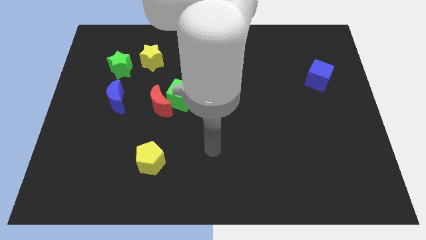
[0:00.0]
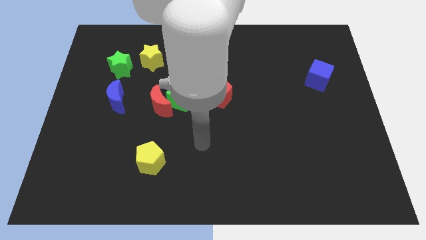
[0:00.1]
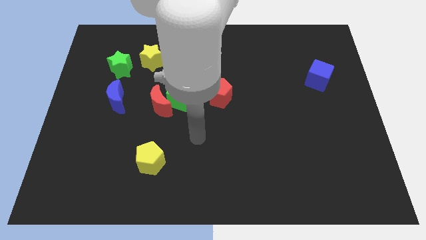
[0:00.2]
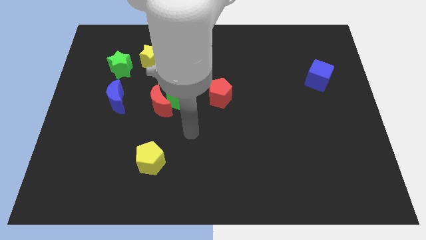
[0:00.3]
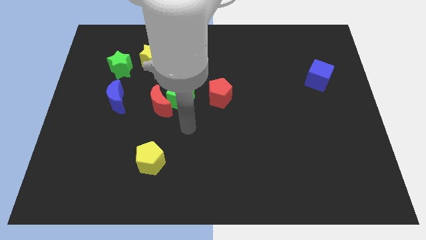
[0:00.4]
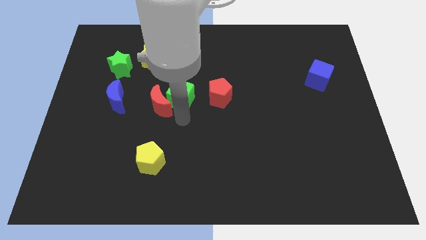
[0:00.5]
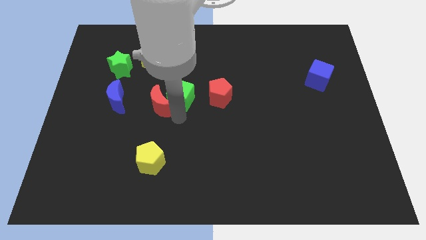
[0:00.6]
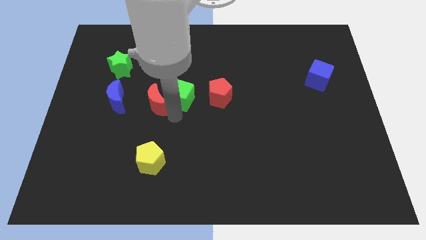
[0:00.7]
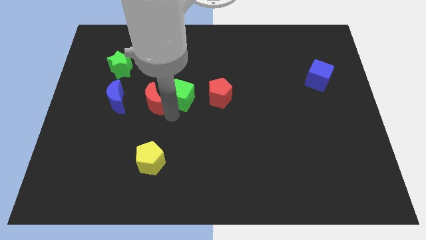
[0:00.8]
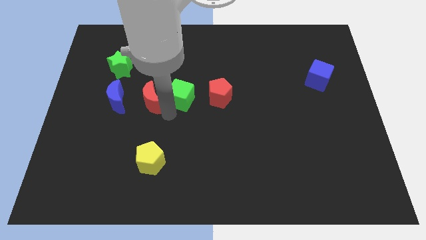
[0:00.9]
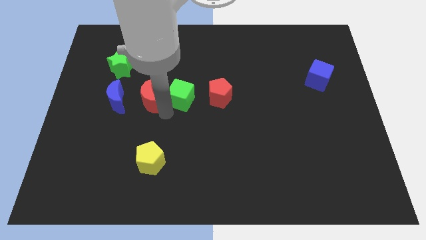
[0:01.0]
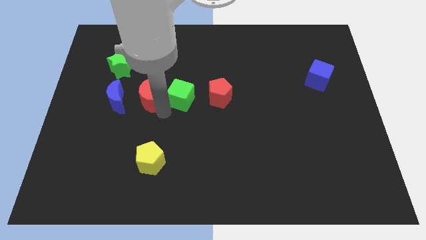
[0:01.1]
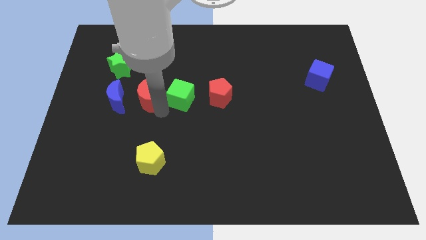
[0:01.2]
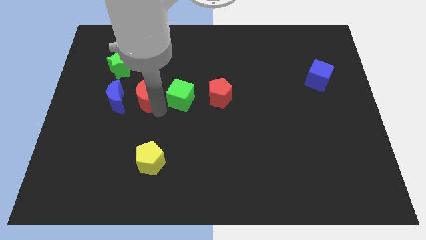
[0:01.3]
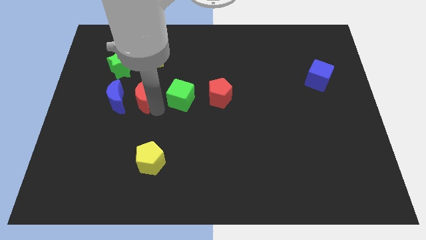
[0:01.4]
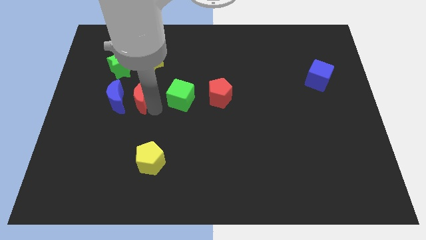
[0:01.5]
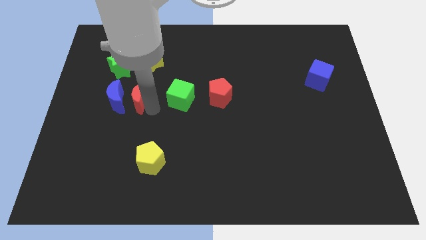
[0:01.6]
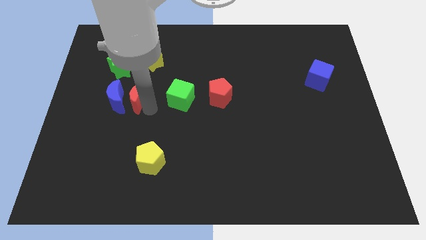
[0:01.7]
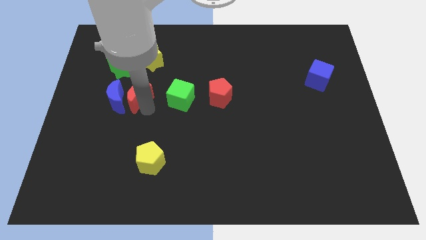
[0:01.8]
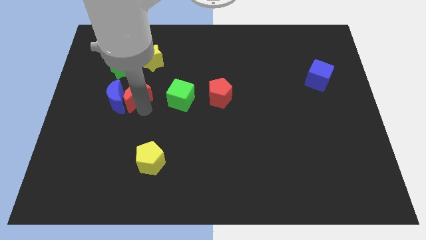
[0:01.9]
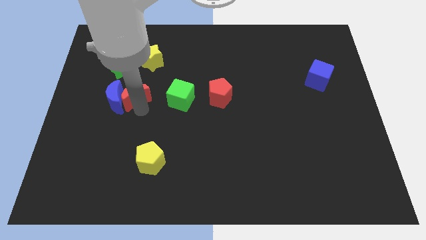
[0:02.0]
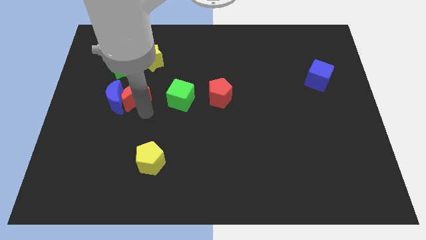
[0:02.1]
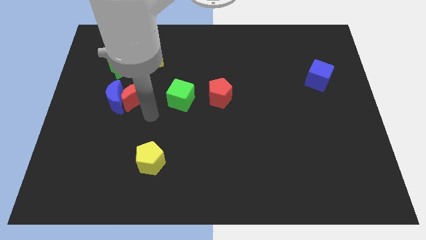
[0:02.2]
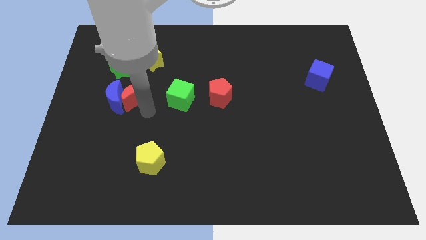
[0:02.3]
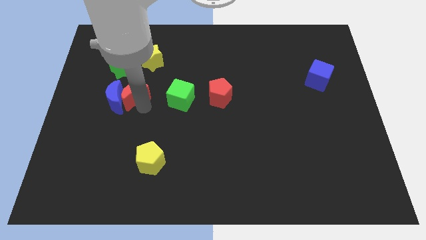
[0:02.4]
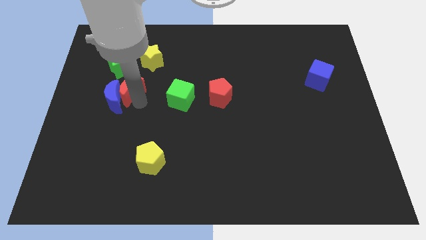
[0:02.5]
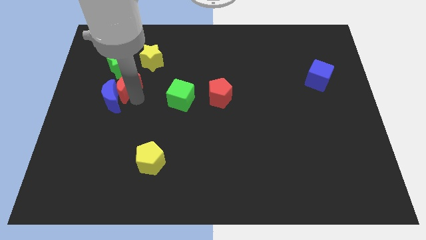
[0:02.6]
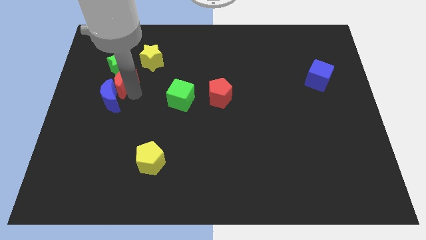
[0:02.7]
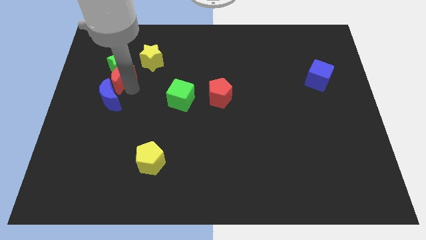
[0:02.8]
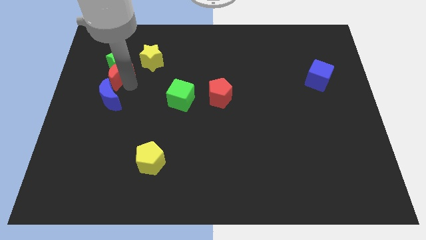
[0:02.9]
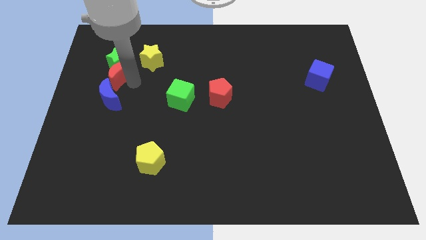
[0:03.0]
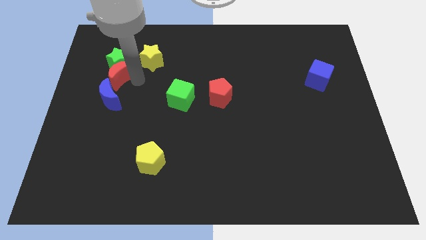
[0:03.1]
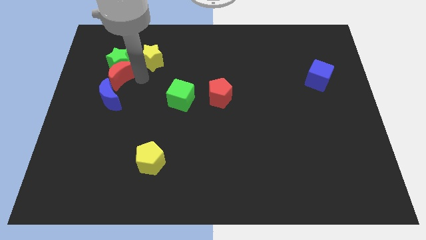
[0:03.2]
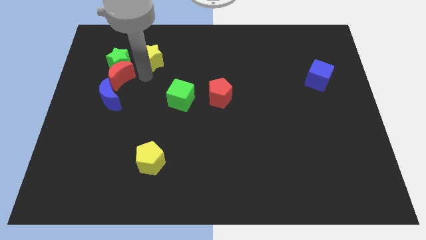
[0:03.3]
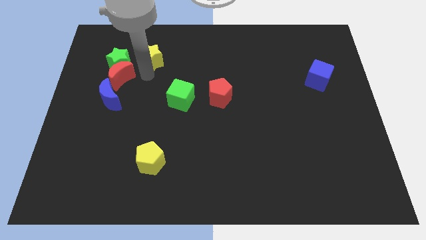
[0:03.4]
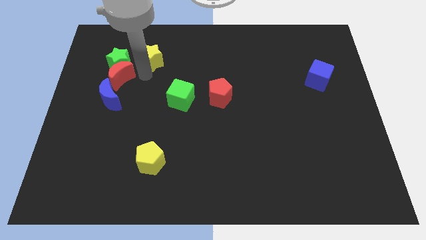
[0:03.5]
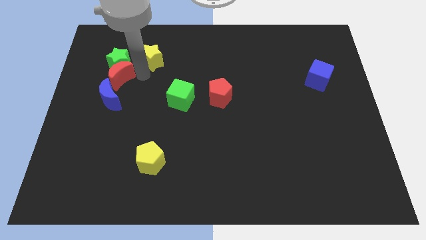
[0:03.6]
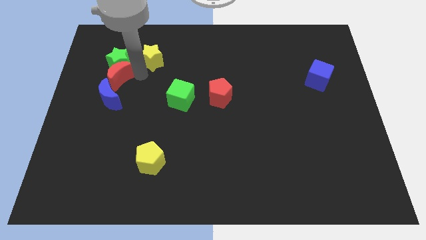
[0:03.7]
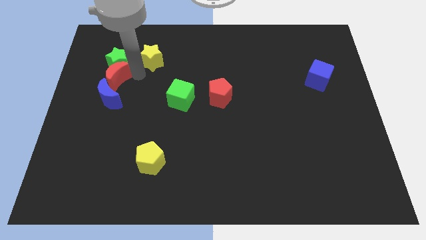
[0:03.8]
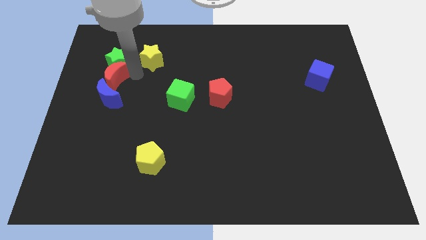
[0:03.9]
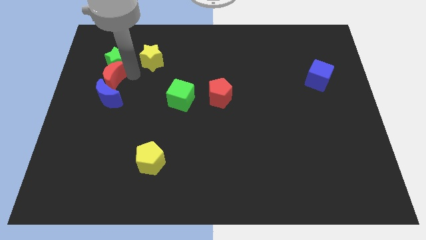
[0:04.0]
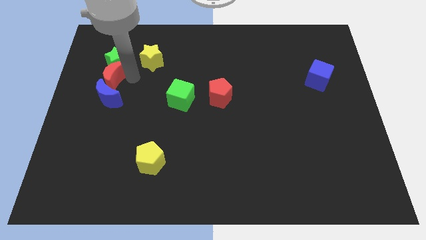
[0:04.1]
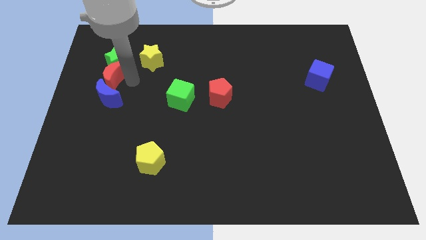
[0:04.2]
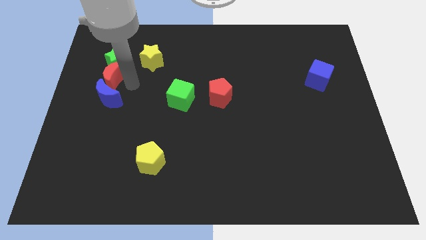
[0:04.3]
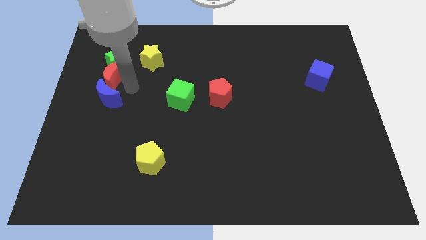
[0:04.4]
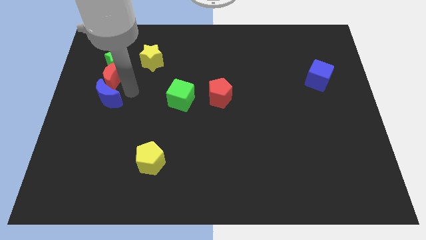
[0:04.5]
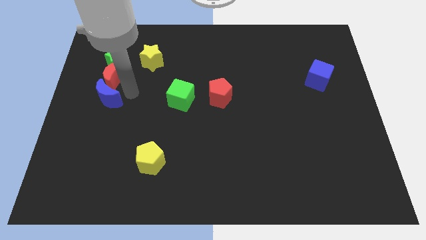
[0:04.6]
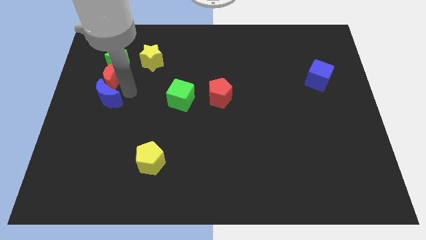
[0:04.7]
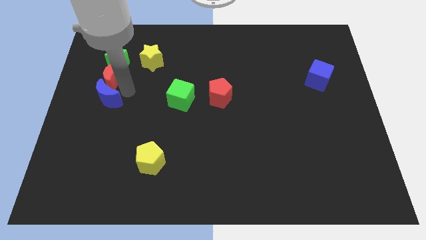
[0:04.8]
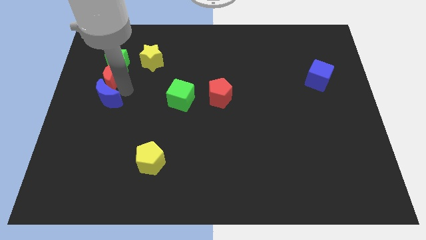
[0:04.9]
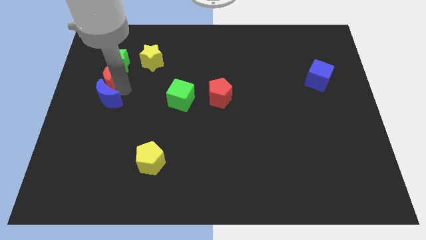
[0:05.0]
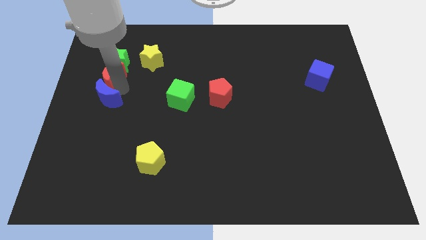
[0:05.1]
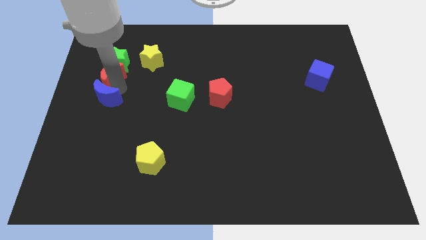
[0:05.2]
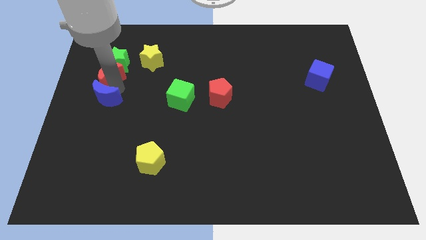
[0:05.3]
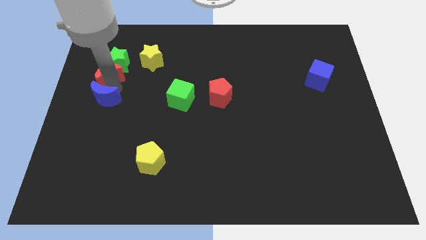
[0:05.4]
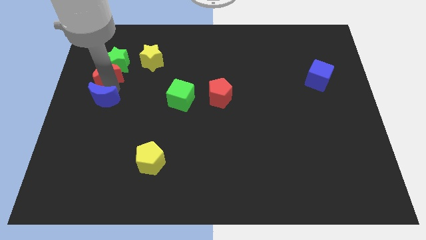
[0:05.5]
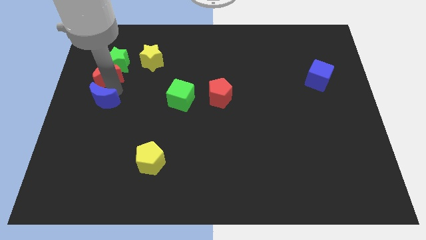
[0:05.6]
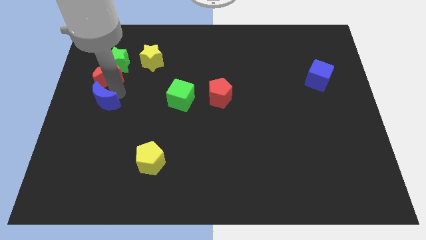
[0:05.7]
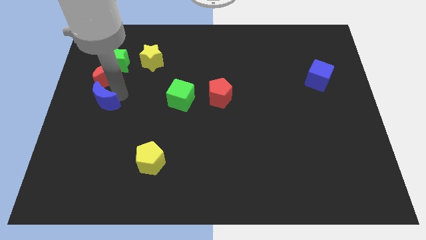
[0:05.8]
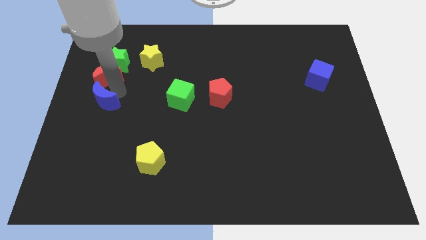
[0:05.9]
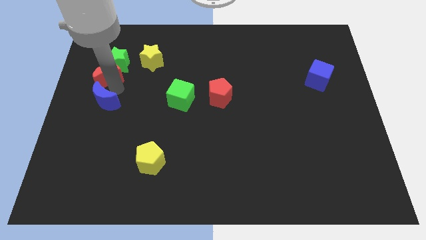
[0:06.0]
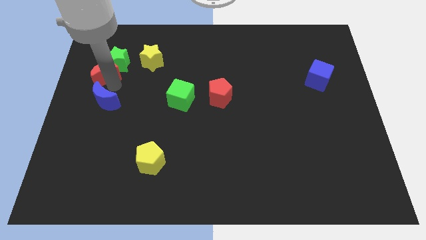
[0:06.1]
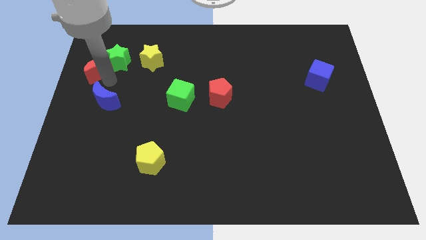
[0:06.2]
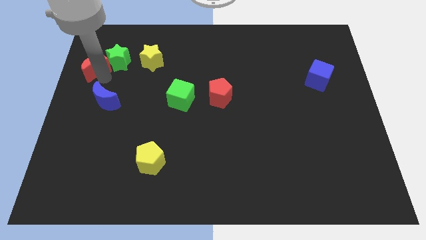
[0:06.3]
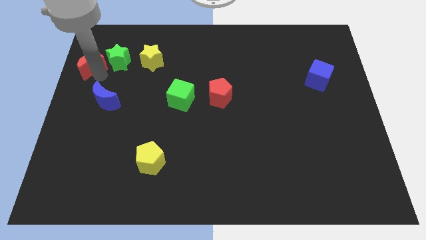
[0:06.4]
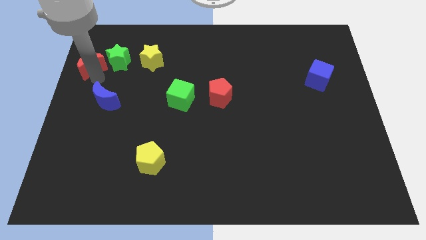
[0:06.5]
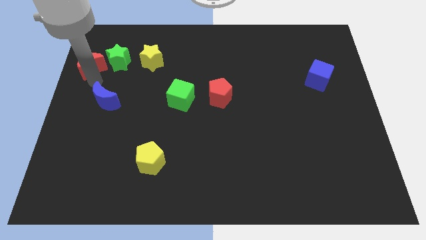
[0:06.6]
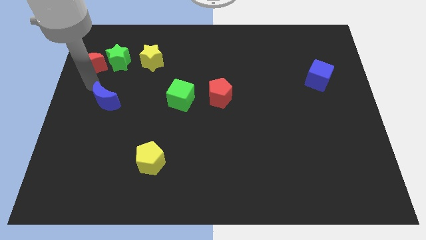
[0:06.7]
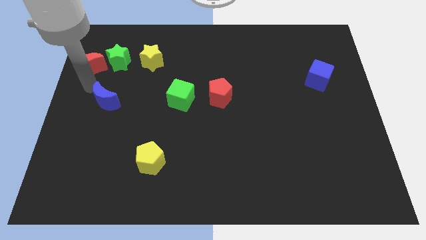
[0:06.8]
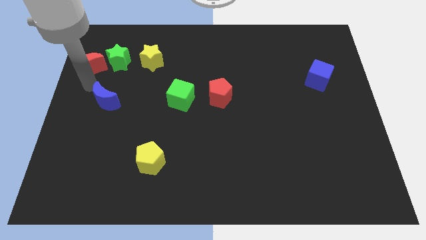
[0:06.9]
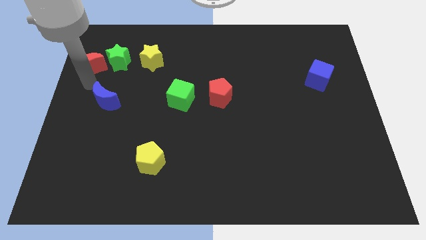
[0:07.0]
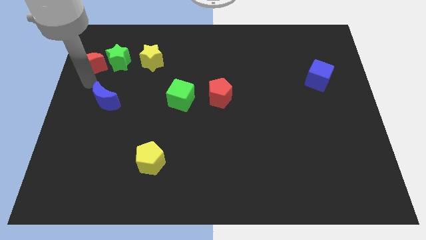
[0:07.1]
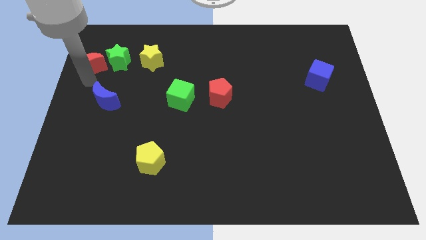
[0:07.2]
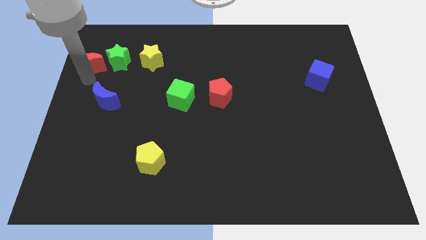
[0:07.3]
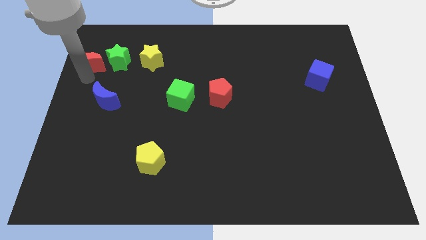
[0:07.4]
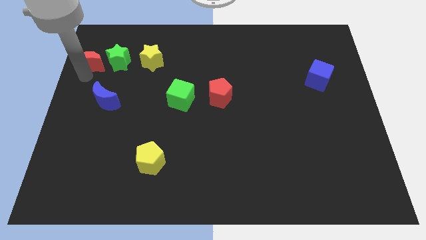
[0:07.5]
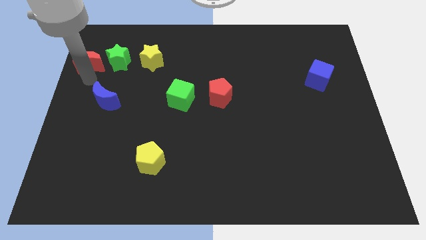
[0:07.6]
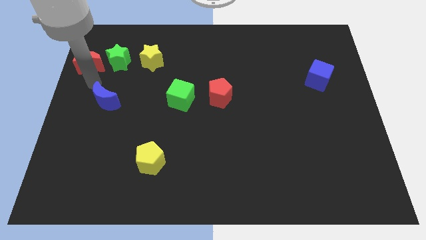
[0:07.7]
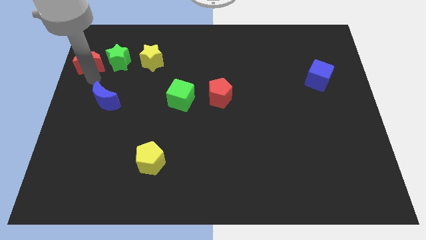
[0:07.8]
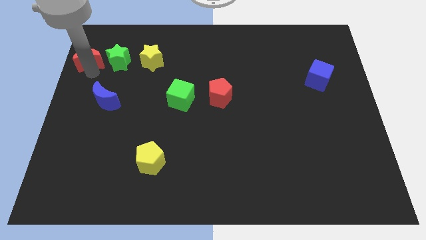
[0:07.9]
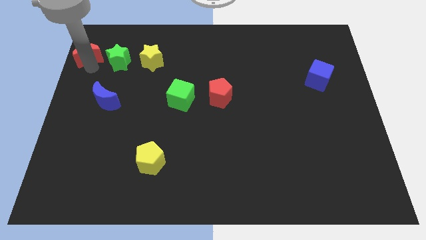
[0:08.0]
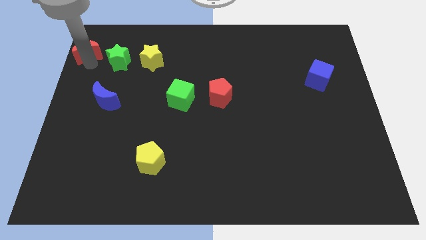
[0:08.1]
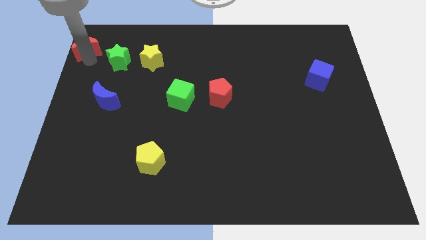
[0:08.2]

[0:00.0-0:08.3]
slide the red moon to the upper left corner
